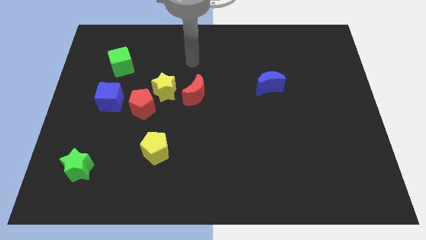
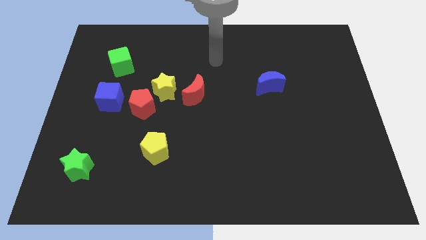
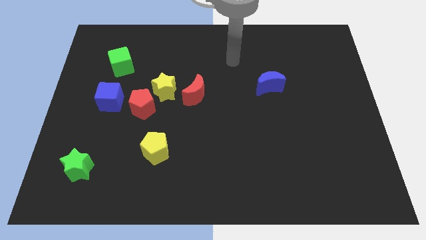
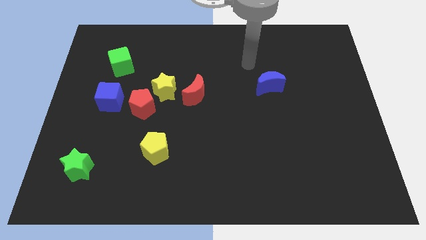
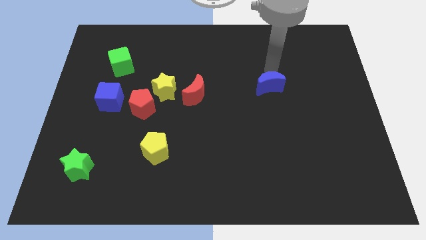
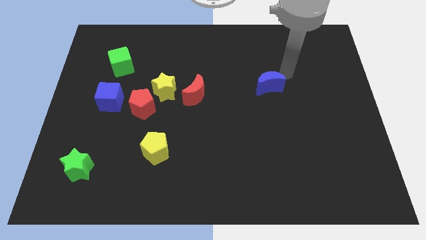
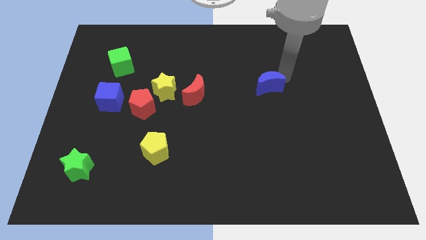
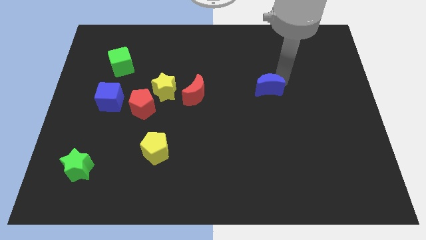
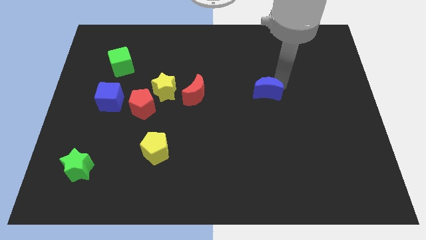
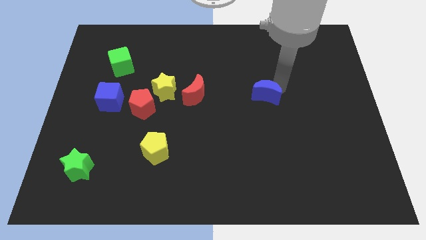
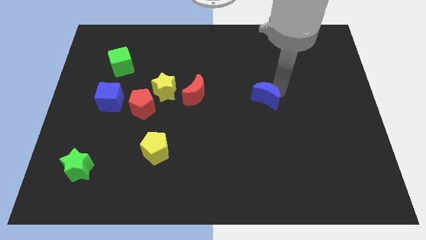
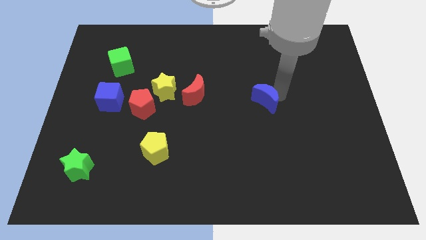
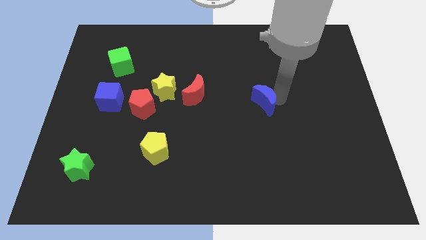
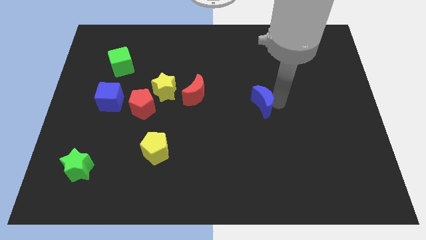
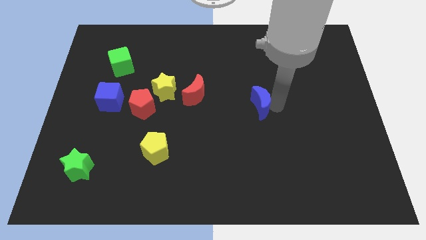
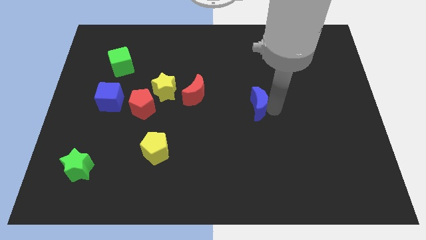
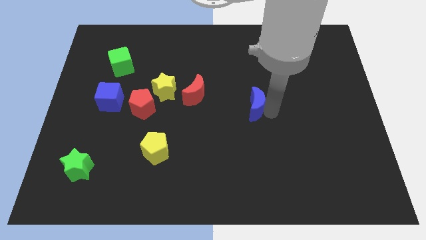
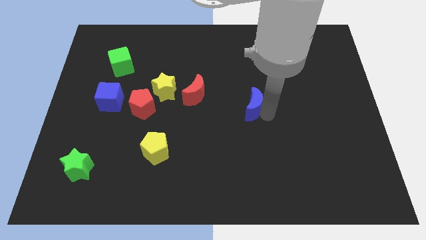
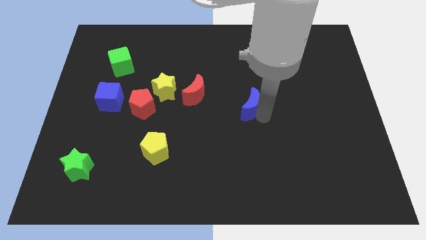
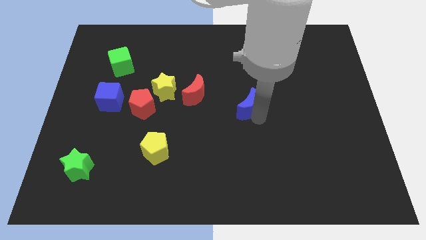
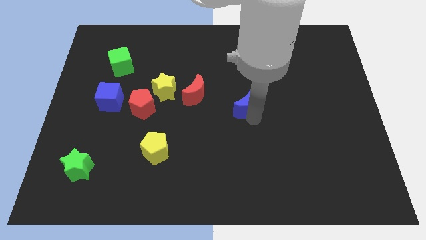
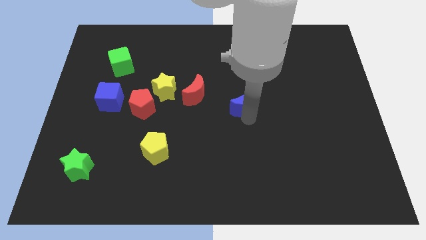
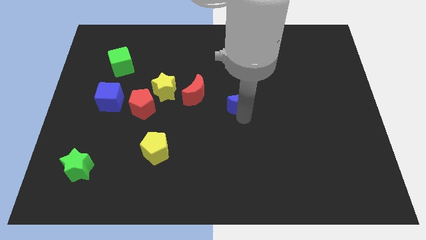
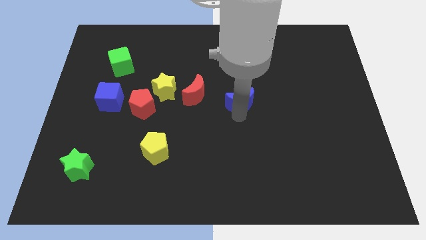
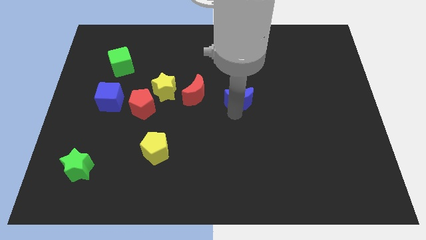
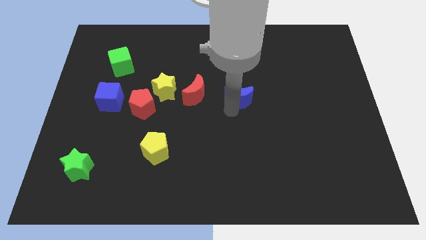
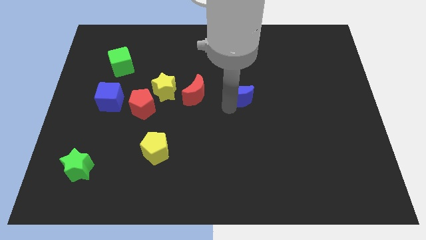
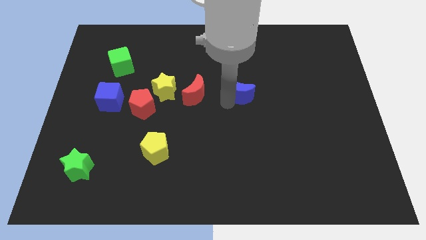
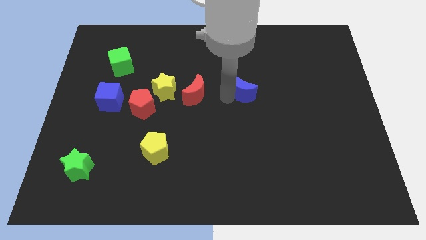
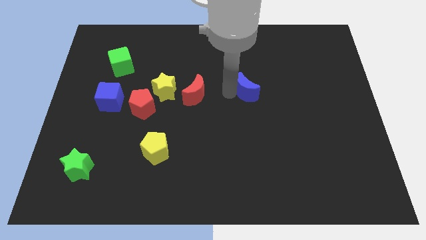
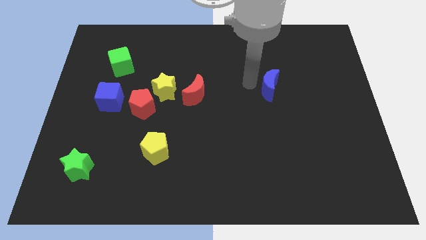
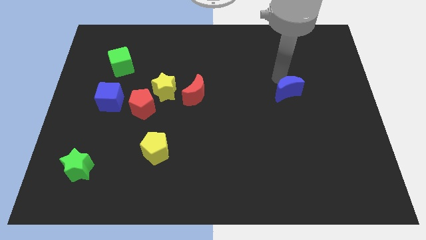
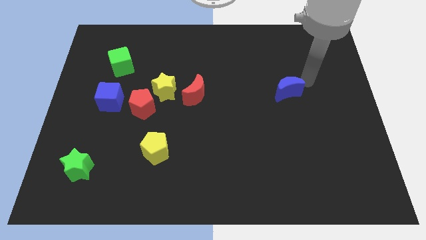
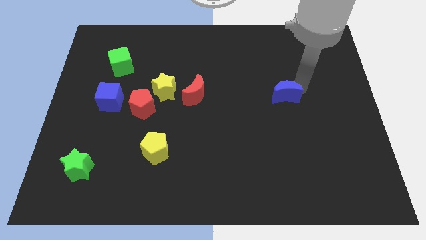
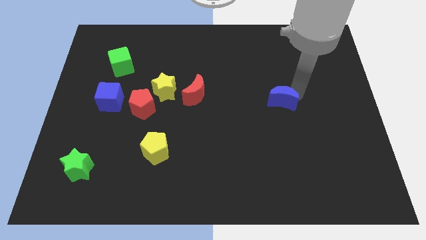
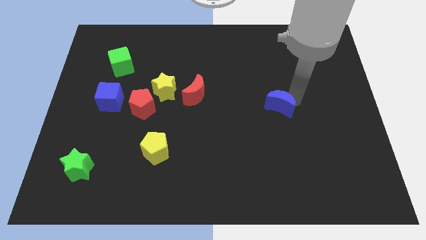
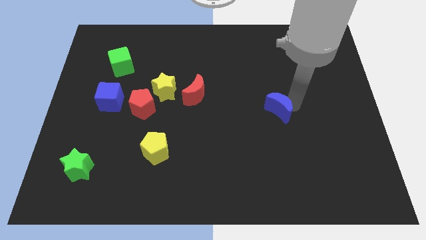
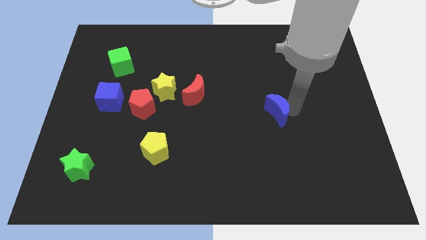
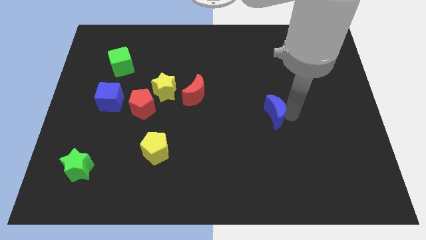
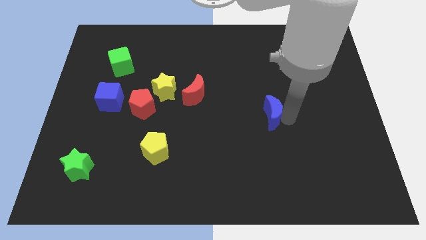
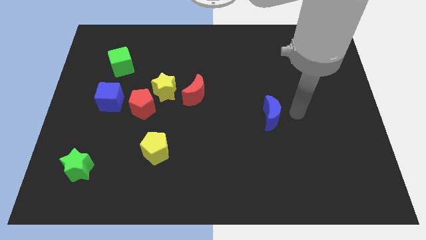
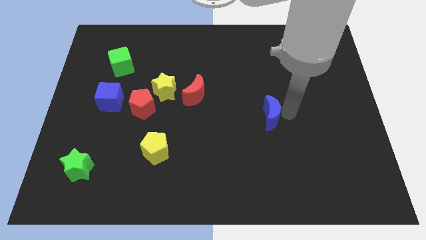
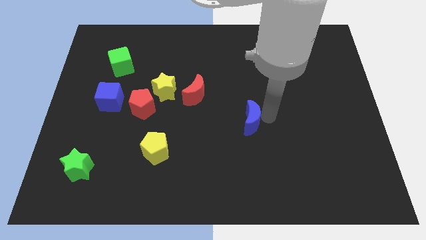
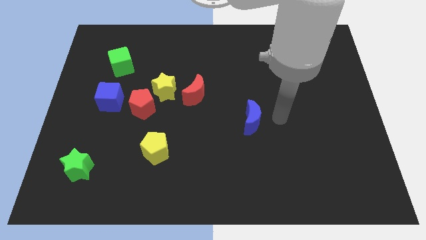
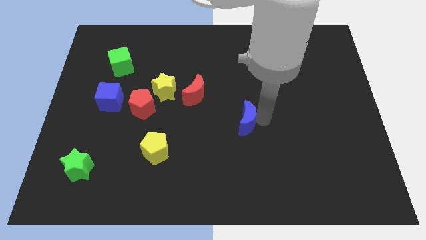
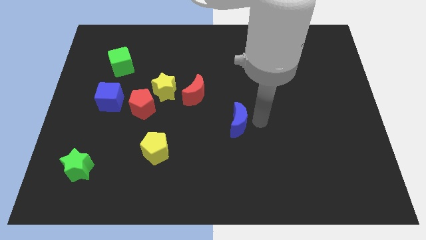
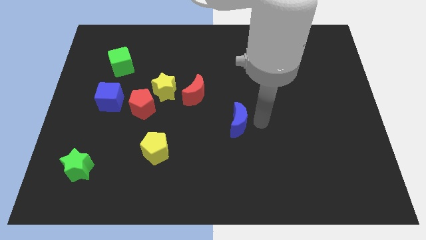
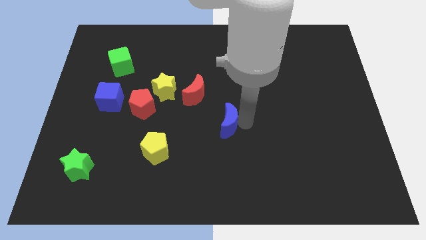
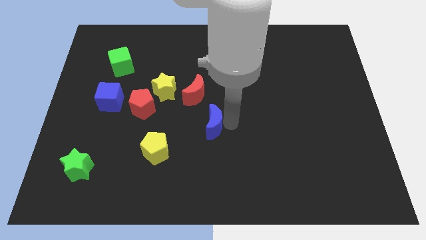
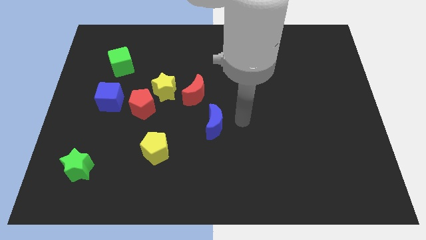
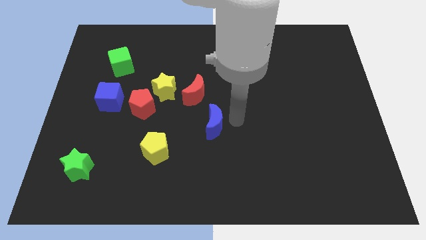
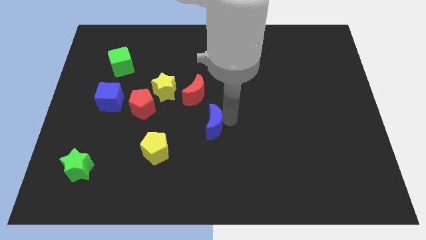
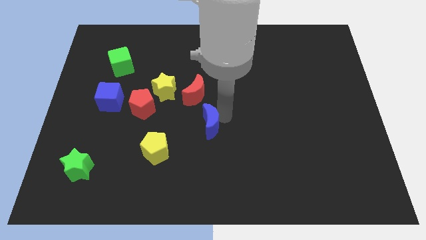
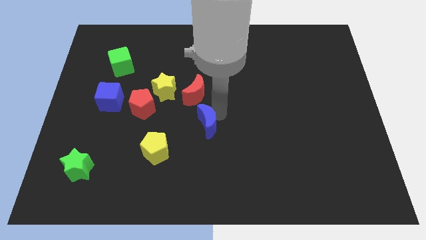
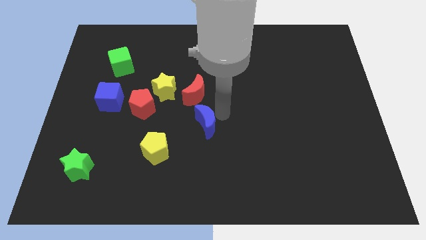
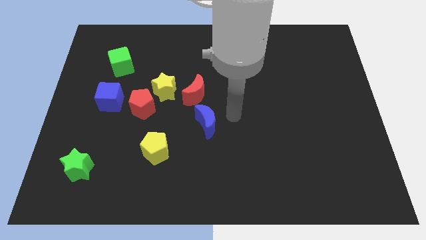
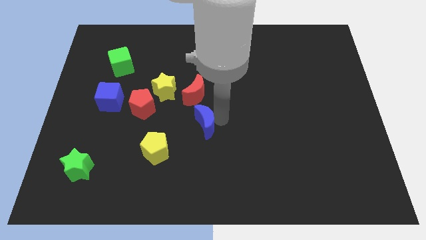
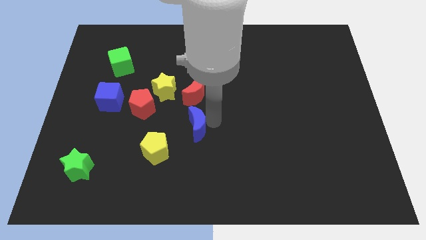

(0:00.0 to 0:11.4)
push the blue moon to the top right of the yellow pentagon
